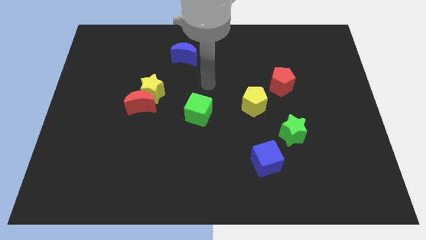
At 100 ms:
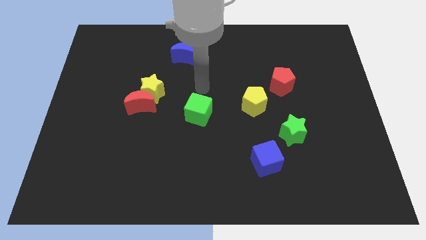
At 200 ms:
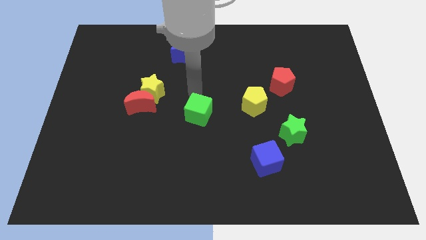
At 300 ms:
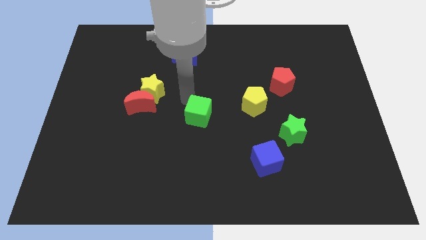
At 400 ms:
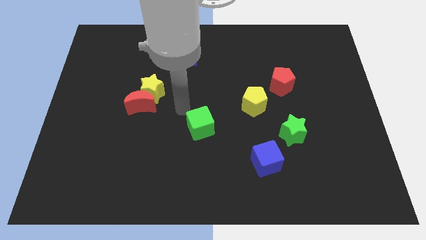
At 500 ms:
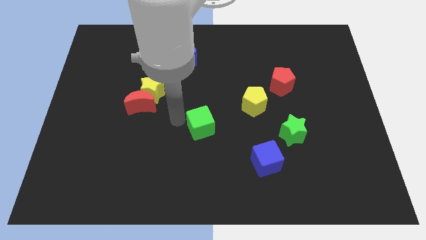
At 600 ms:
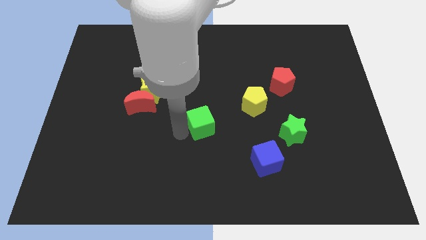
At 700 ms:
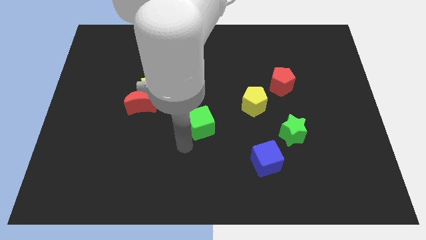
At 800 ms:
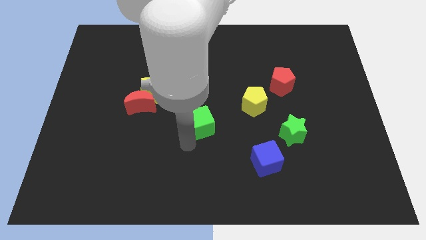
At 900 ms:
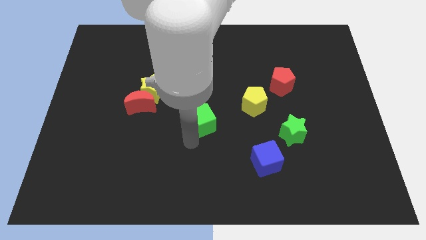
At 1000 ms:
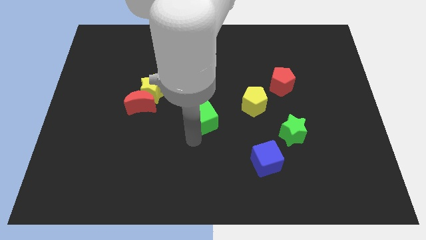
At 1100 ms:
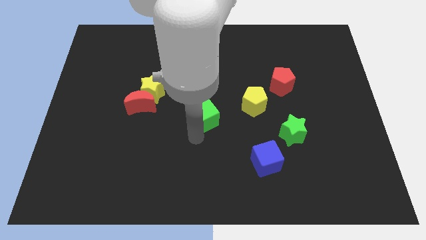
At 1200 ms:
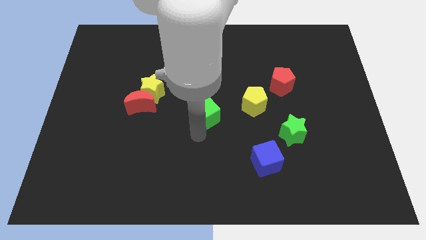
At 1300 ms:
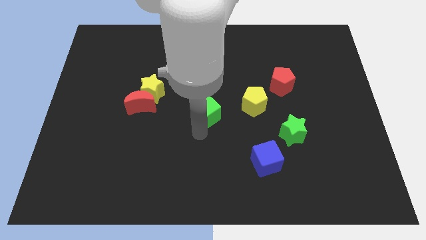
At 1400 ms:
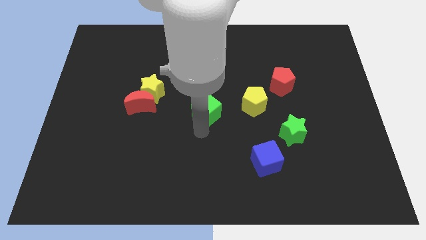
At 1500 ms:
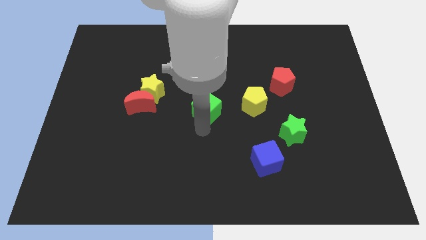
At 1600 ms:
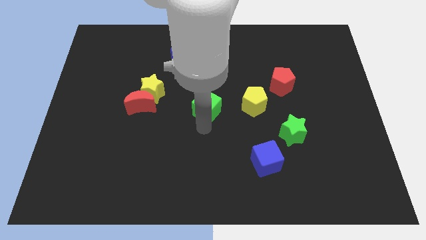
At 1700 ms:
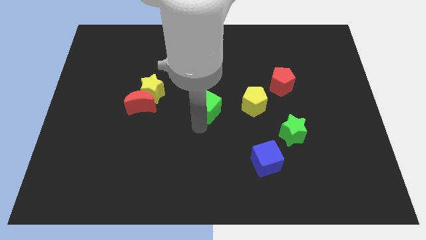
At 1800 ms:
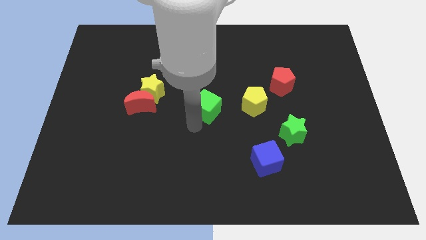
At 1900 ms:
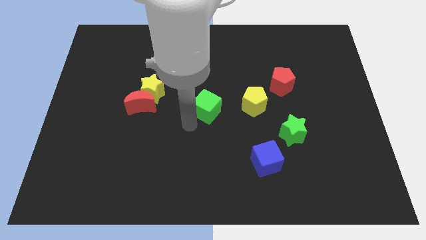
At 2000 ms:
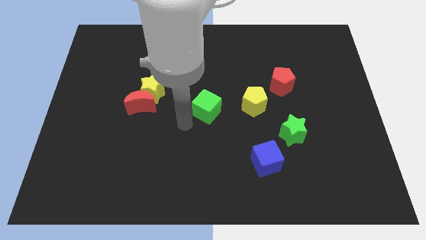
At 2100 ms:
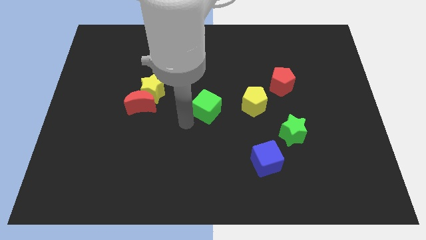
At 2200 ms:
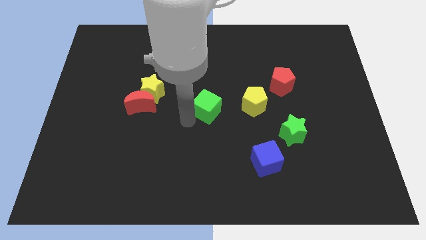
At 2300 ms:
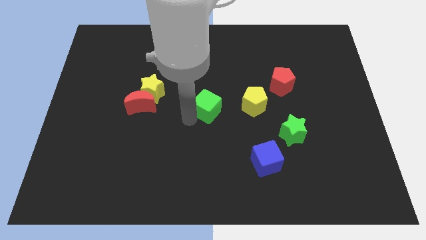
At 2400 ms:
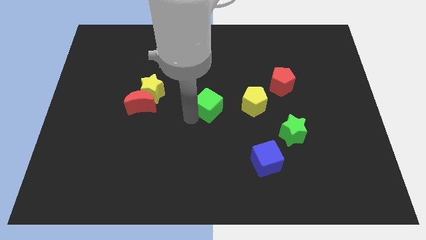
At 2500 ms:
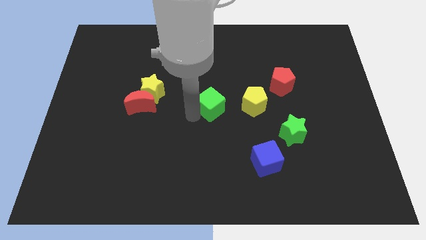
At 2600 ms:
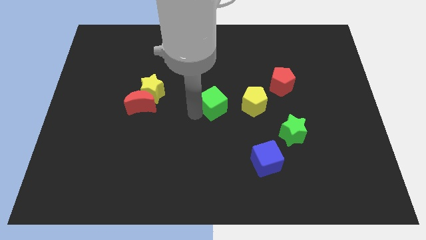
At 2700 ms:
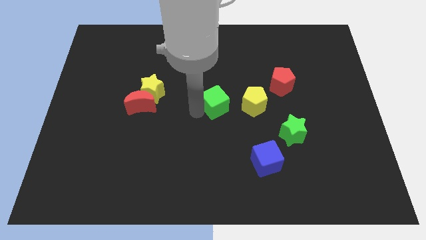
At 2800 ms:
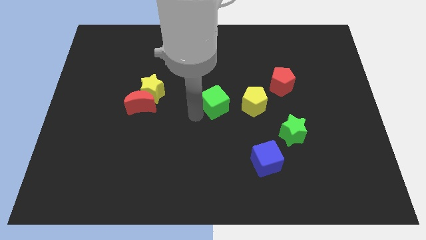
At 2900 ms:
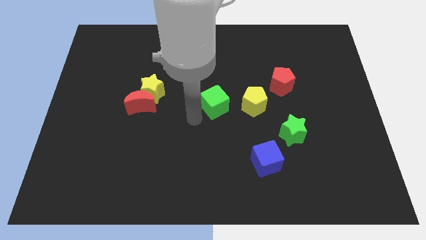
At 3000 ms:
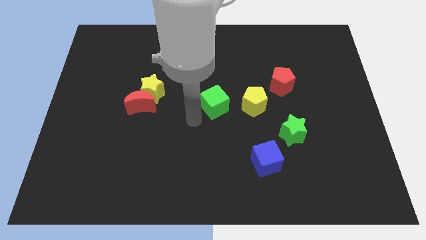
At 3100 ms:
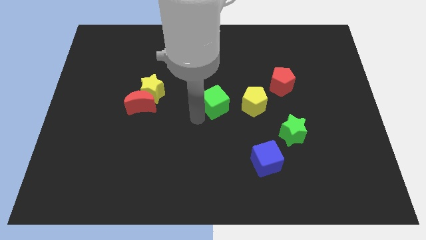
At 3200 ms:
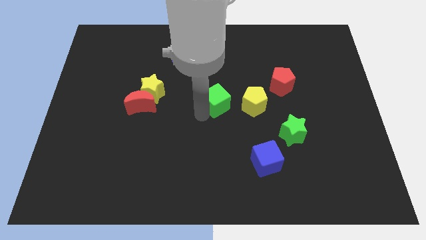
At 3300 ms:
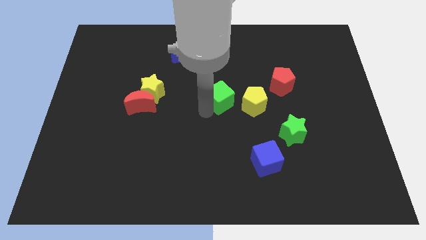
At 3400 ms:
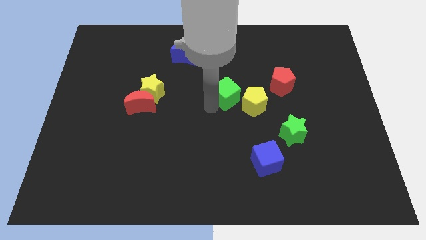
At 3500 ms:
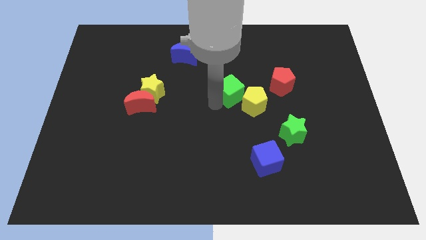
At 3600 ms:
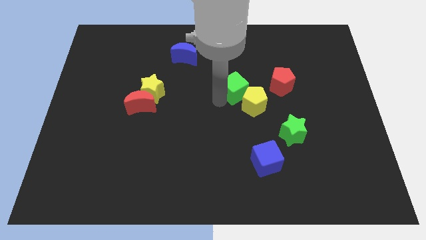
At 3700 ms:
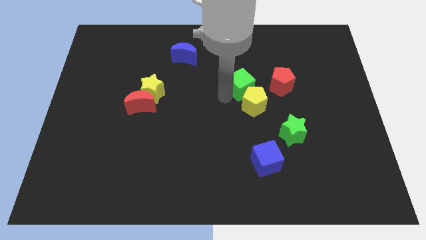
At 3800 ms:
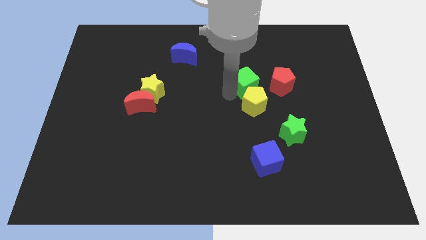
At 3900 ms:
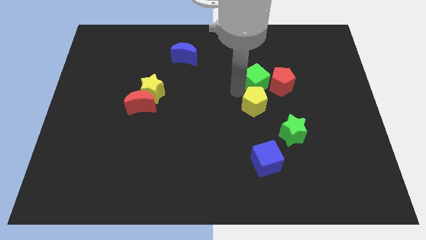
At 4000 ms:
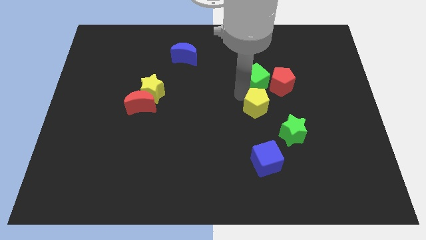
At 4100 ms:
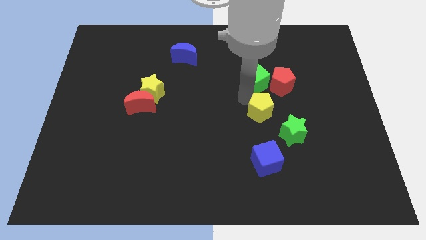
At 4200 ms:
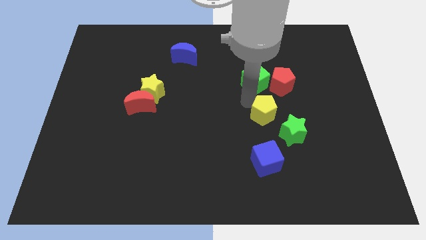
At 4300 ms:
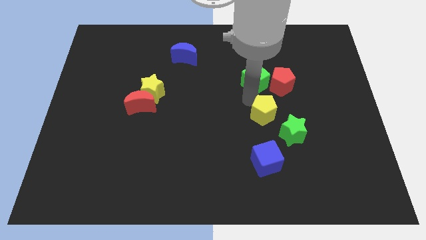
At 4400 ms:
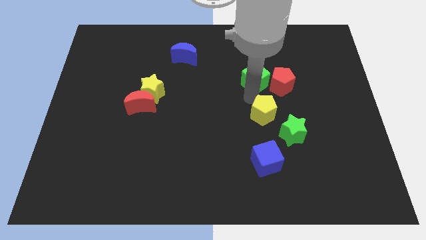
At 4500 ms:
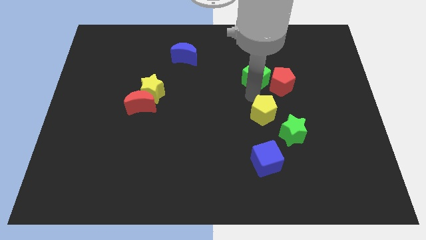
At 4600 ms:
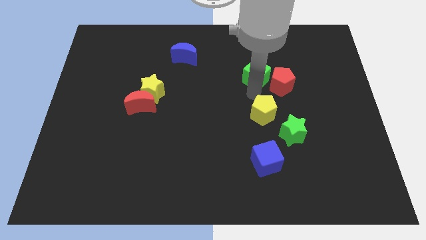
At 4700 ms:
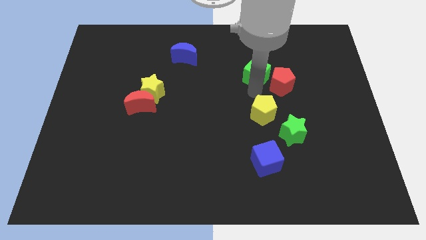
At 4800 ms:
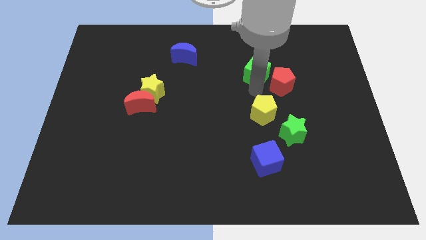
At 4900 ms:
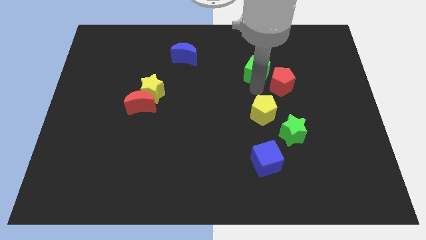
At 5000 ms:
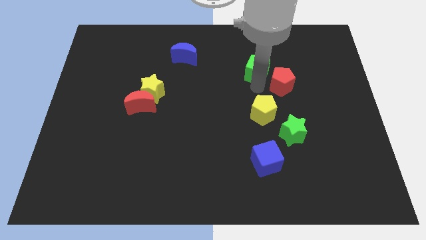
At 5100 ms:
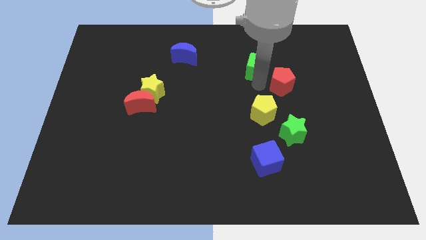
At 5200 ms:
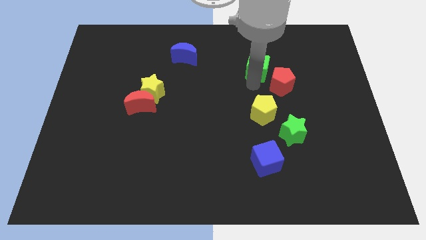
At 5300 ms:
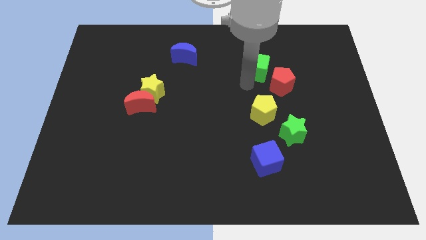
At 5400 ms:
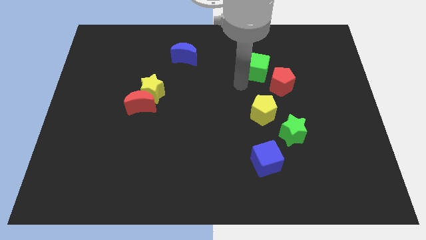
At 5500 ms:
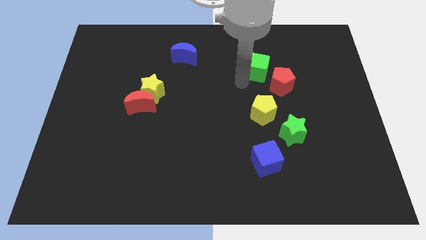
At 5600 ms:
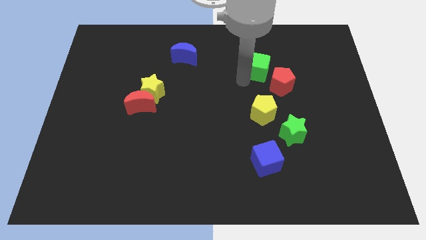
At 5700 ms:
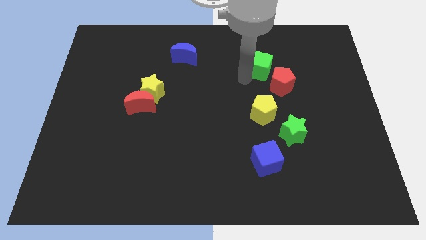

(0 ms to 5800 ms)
put the green cube to the top of the red pentagon

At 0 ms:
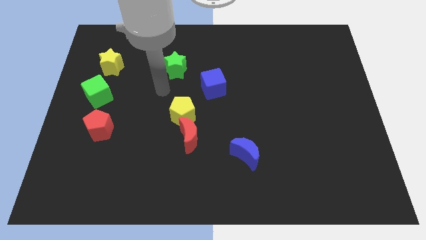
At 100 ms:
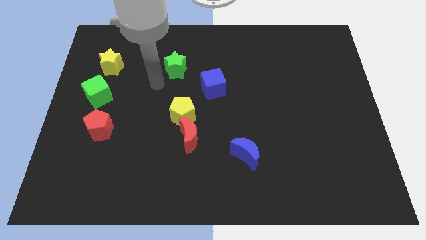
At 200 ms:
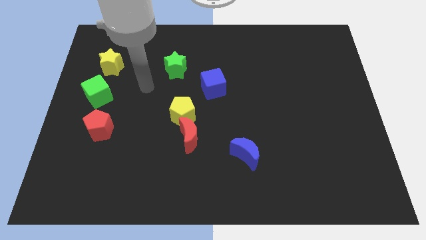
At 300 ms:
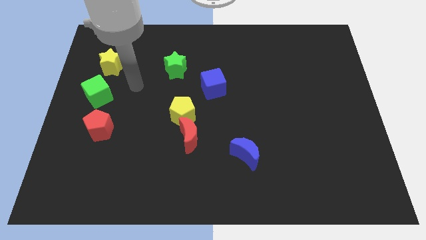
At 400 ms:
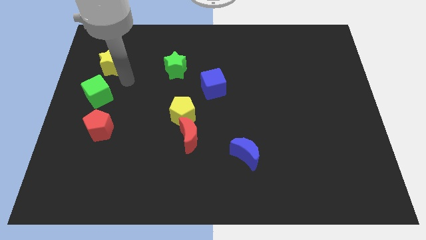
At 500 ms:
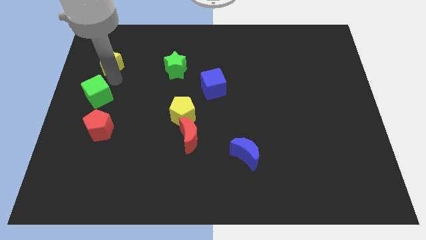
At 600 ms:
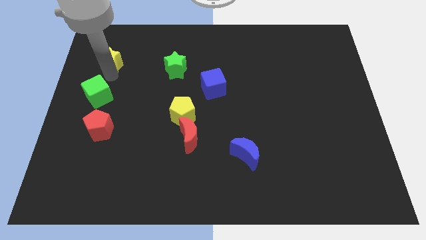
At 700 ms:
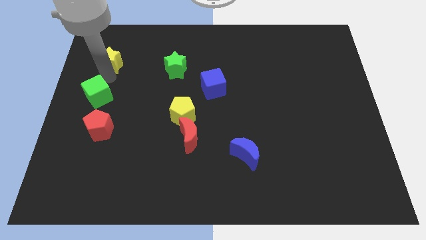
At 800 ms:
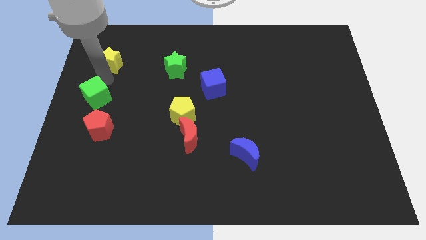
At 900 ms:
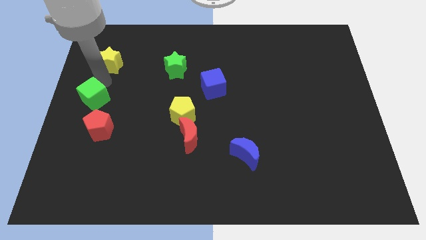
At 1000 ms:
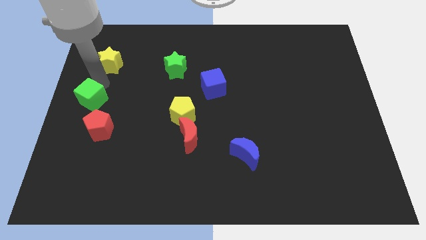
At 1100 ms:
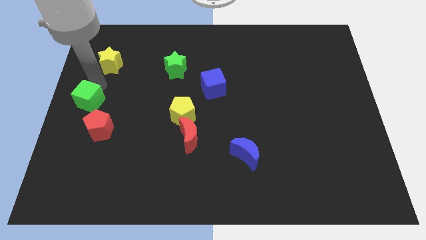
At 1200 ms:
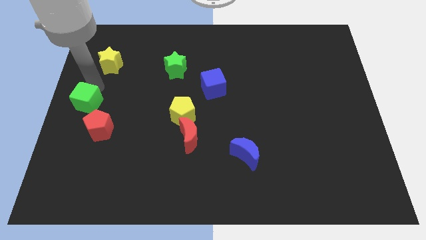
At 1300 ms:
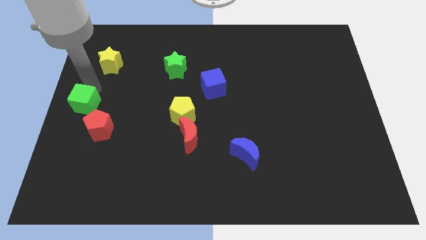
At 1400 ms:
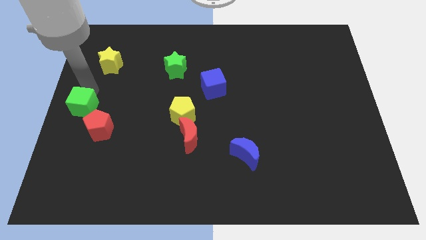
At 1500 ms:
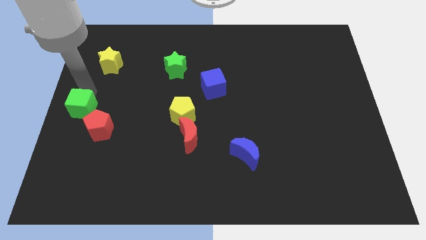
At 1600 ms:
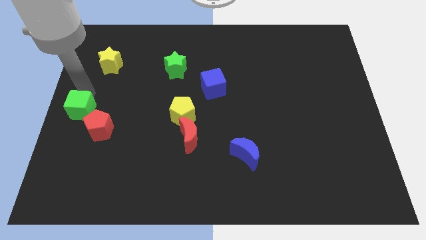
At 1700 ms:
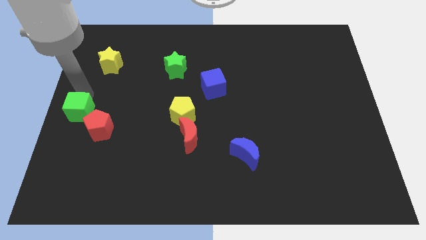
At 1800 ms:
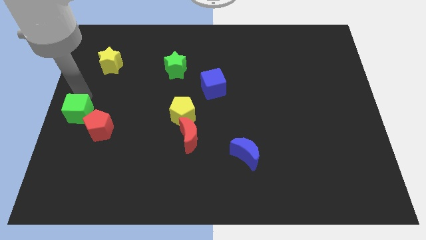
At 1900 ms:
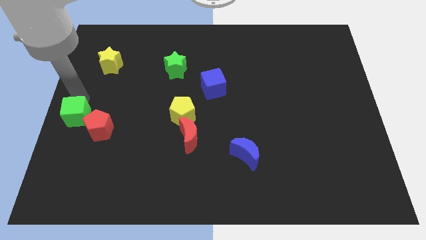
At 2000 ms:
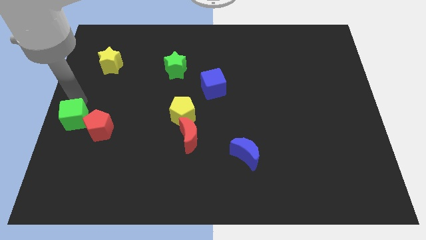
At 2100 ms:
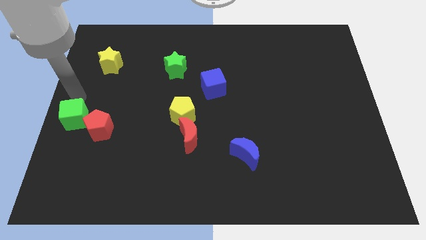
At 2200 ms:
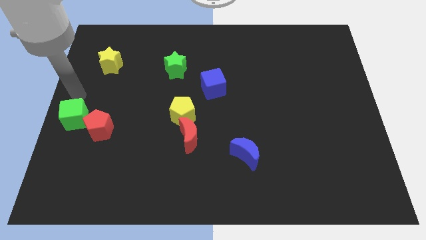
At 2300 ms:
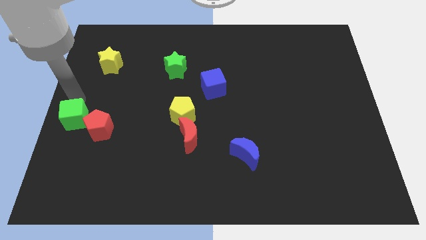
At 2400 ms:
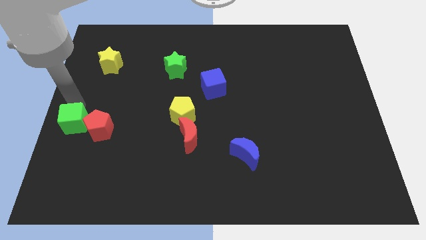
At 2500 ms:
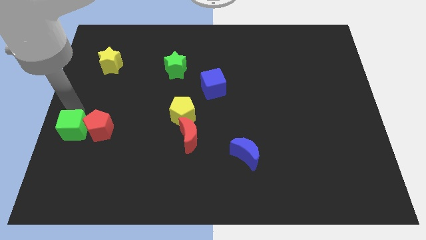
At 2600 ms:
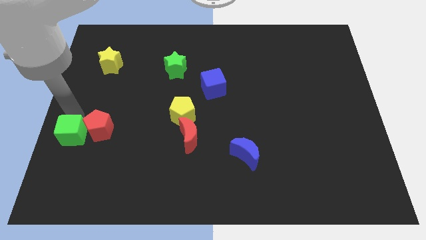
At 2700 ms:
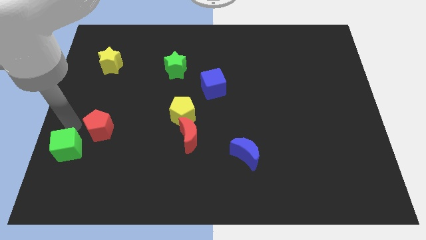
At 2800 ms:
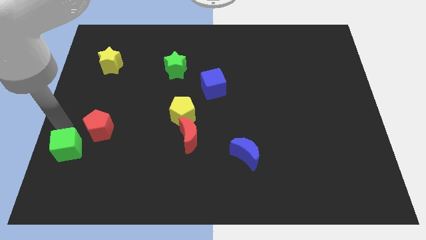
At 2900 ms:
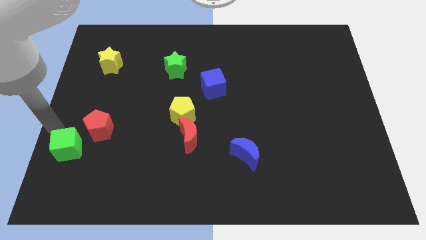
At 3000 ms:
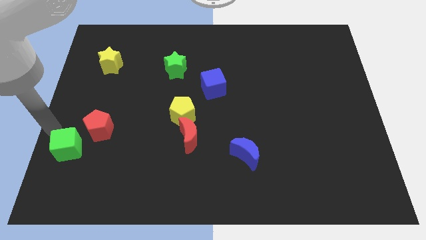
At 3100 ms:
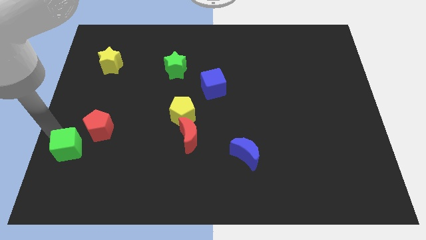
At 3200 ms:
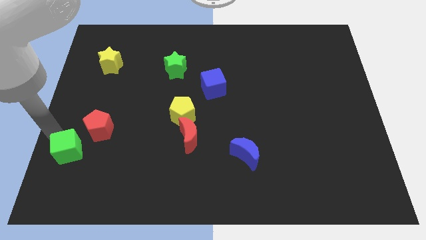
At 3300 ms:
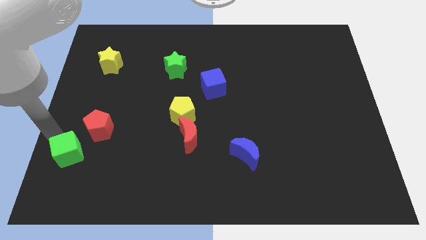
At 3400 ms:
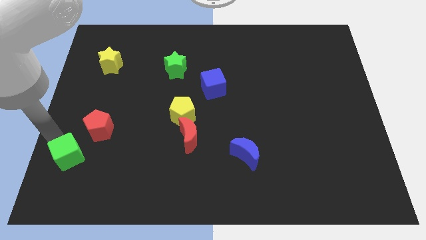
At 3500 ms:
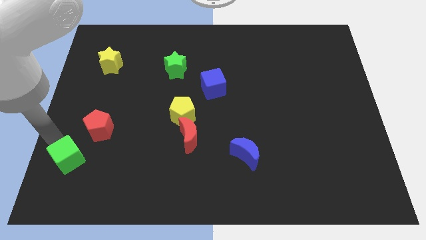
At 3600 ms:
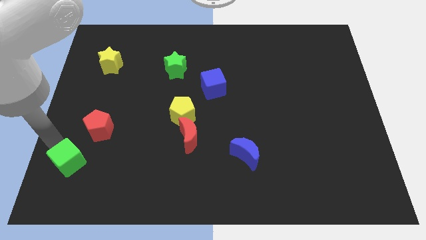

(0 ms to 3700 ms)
move the green cube to the bottom side of the red pentagon
